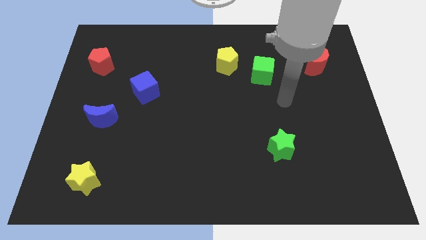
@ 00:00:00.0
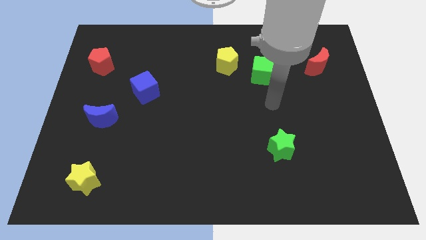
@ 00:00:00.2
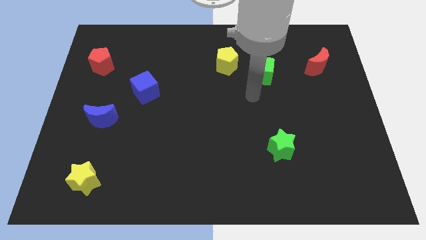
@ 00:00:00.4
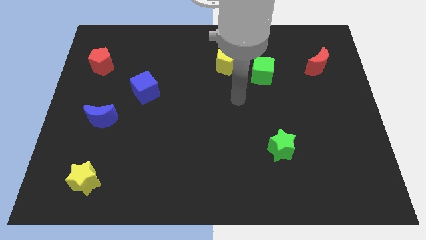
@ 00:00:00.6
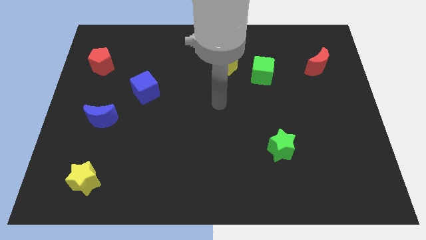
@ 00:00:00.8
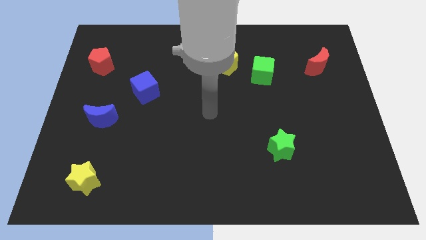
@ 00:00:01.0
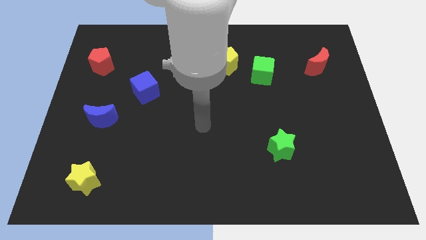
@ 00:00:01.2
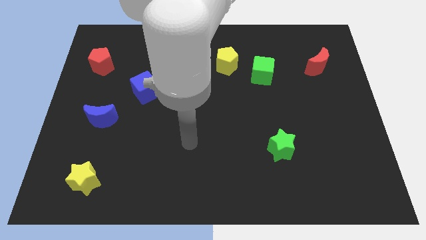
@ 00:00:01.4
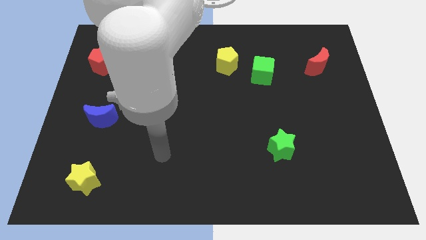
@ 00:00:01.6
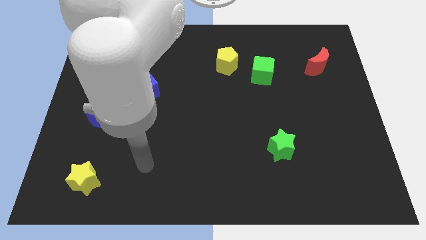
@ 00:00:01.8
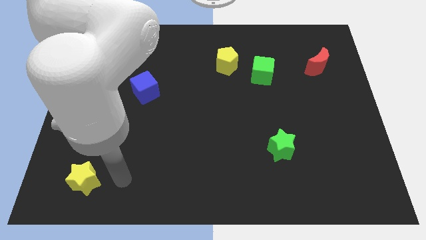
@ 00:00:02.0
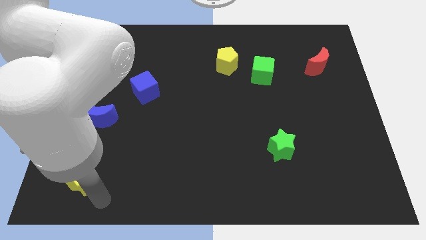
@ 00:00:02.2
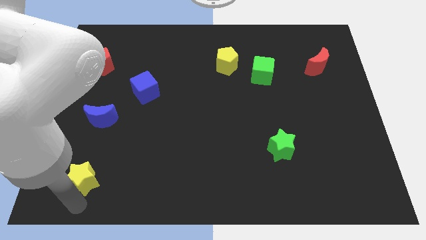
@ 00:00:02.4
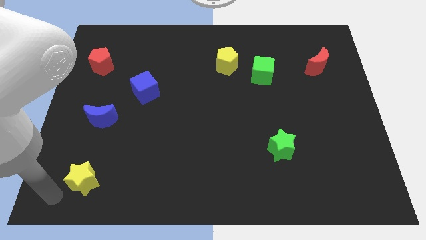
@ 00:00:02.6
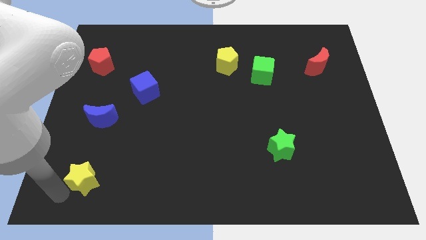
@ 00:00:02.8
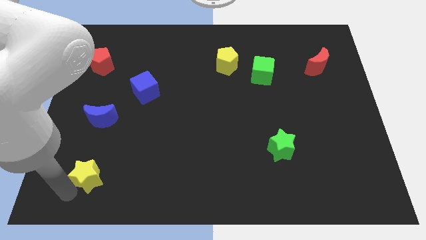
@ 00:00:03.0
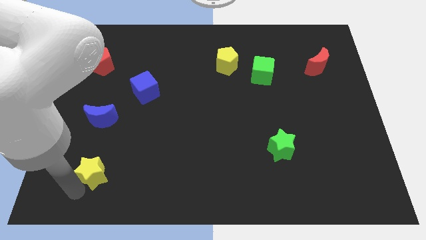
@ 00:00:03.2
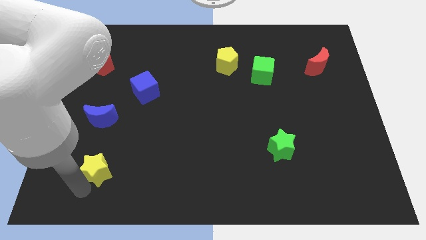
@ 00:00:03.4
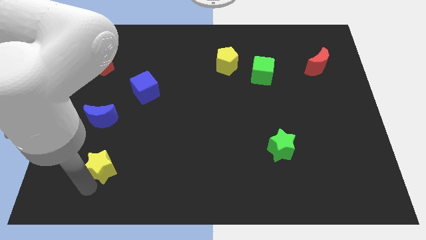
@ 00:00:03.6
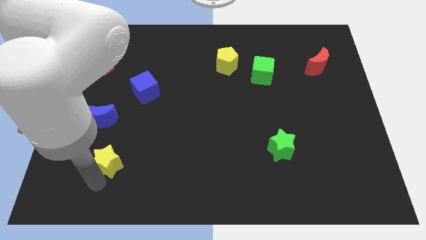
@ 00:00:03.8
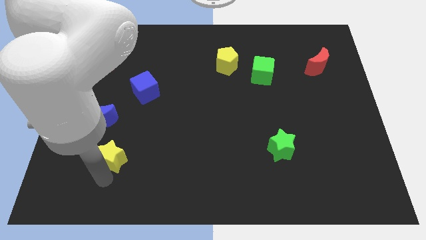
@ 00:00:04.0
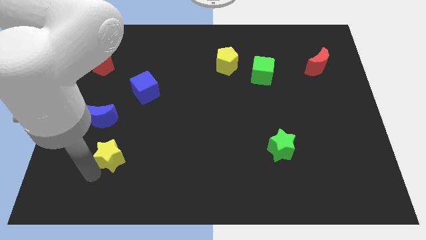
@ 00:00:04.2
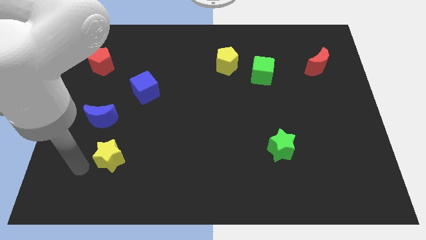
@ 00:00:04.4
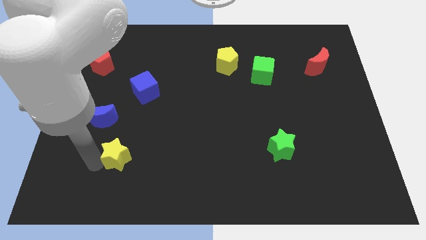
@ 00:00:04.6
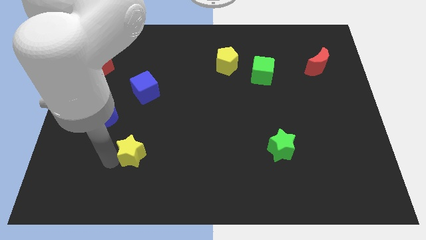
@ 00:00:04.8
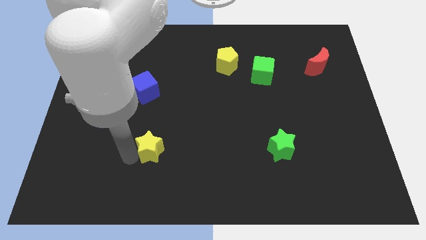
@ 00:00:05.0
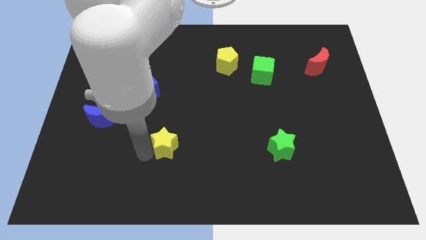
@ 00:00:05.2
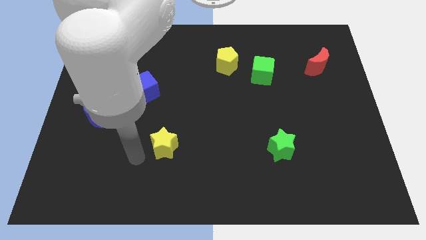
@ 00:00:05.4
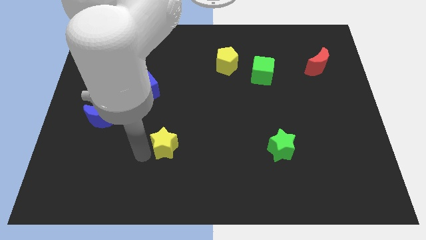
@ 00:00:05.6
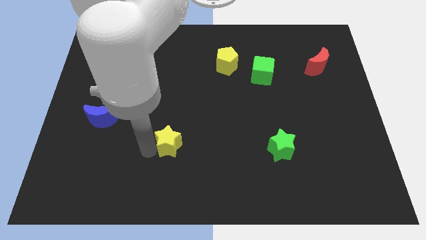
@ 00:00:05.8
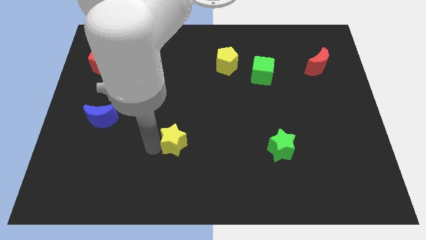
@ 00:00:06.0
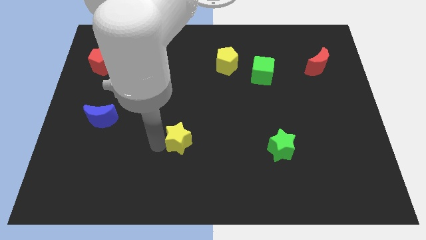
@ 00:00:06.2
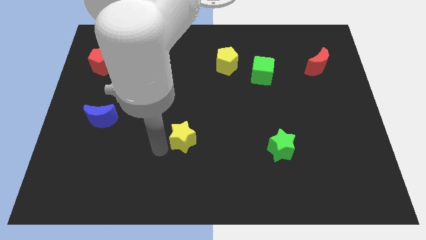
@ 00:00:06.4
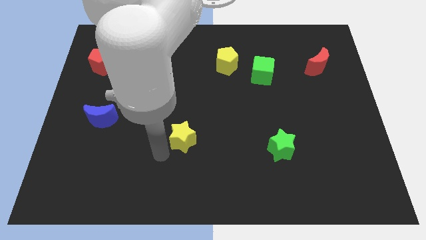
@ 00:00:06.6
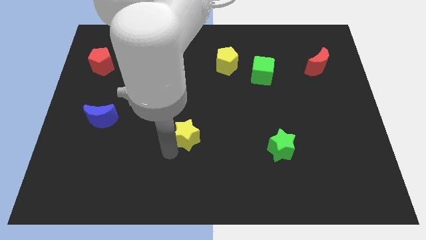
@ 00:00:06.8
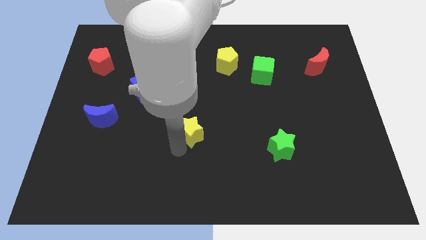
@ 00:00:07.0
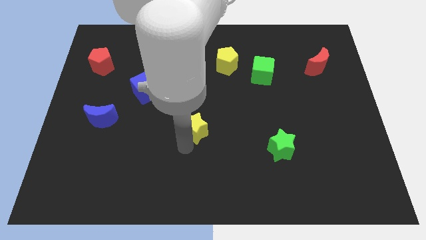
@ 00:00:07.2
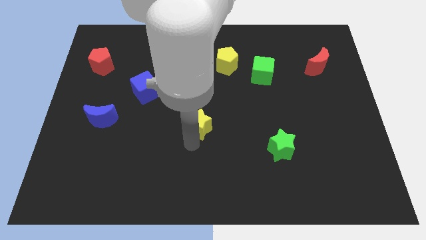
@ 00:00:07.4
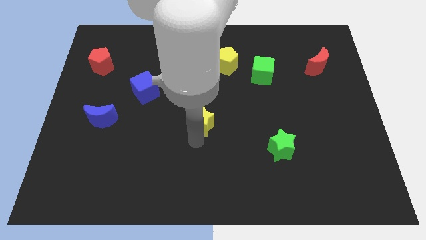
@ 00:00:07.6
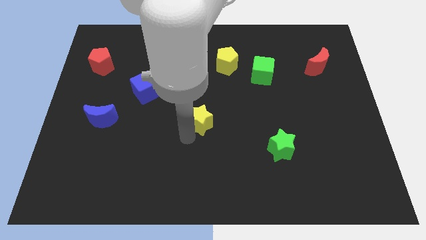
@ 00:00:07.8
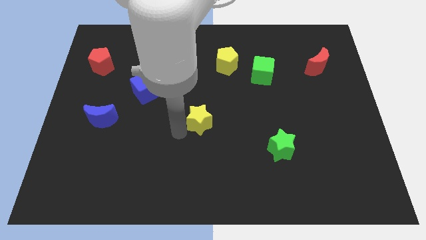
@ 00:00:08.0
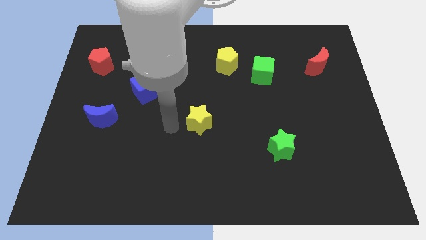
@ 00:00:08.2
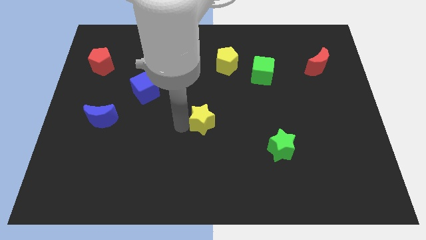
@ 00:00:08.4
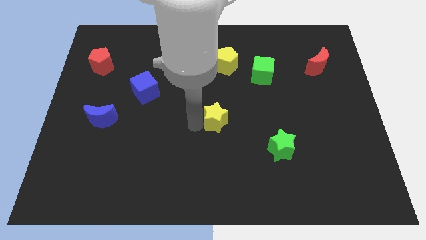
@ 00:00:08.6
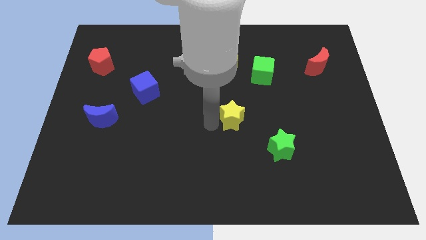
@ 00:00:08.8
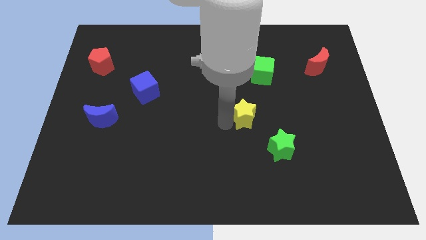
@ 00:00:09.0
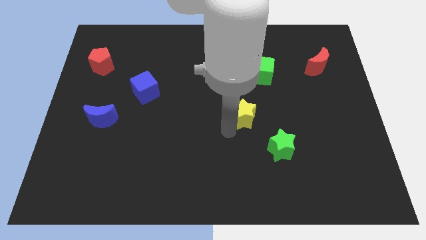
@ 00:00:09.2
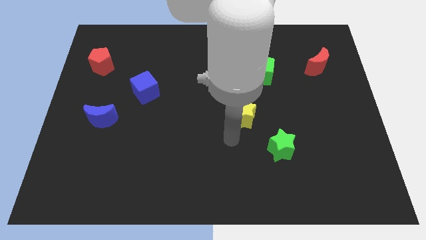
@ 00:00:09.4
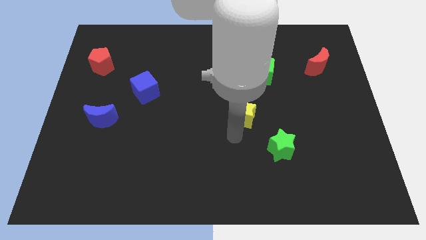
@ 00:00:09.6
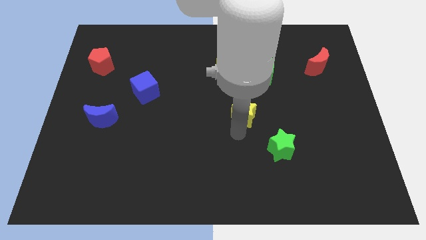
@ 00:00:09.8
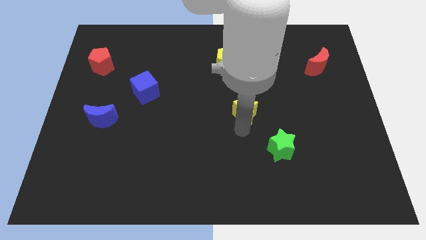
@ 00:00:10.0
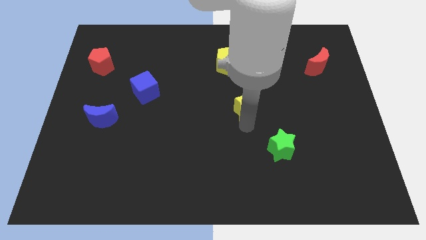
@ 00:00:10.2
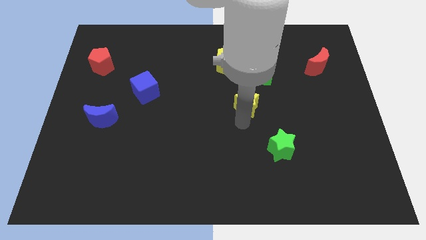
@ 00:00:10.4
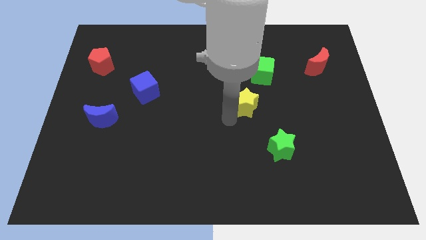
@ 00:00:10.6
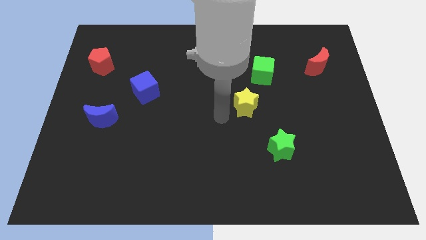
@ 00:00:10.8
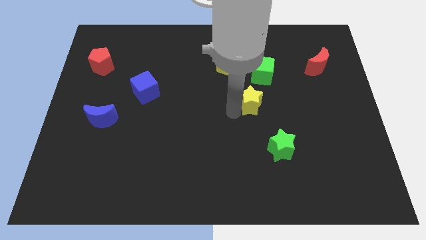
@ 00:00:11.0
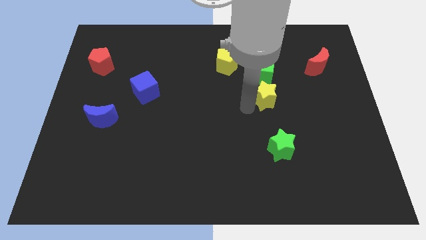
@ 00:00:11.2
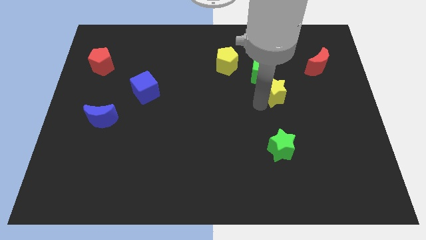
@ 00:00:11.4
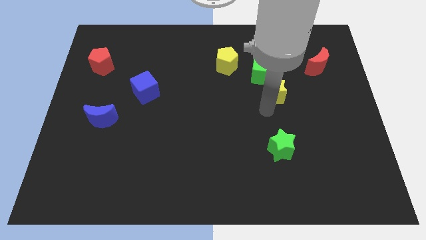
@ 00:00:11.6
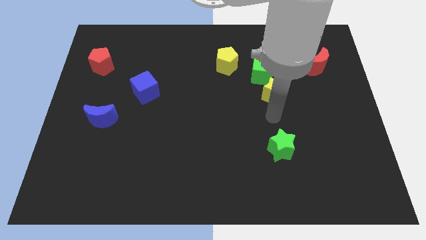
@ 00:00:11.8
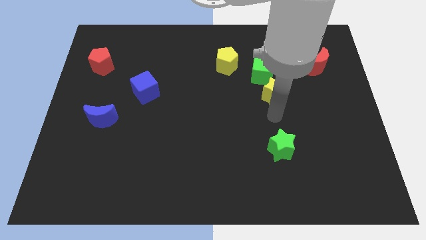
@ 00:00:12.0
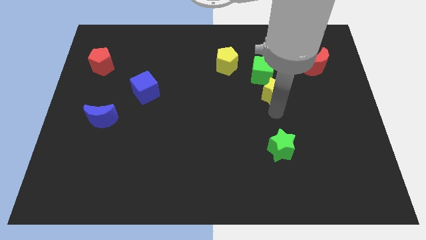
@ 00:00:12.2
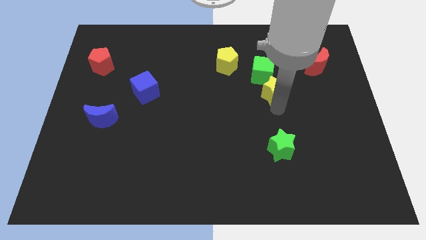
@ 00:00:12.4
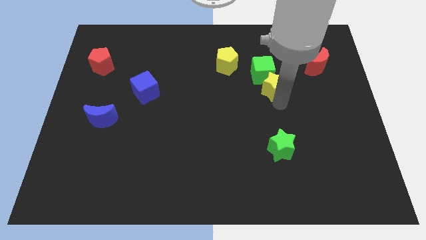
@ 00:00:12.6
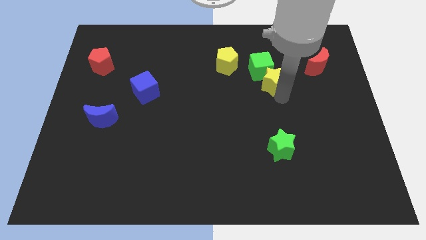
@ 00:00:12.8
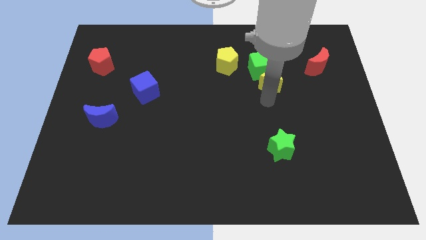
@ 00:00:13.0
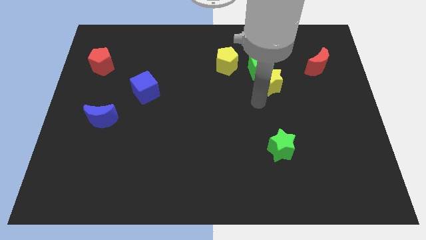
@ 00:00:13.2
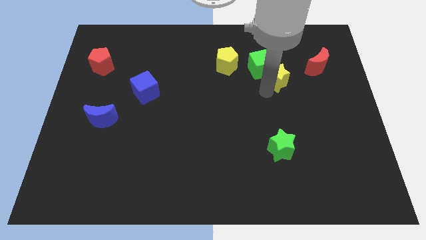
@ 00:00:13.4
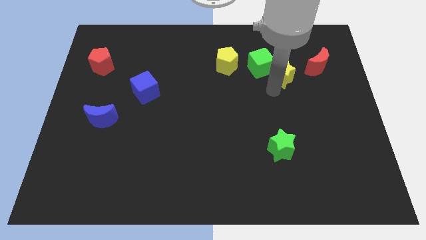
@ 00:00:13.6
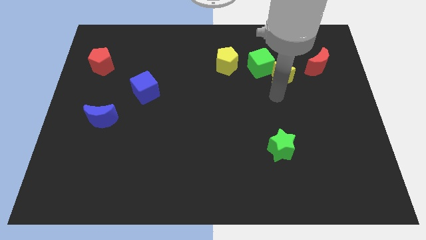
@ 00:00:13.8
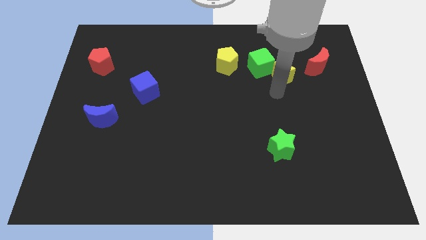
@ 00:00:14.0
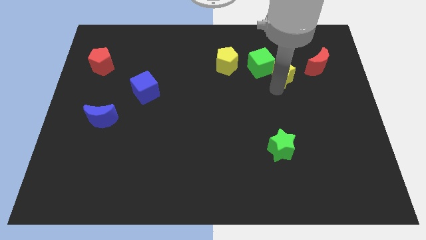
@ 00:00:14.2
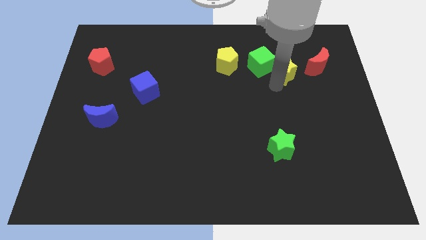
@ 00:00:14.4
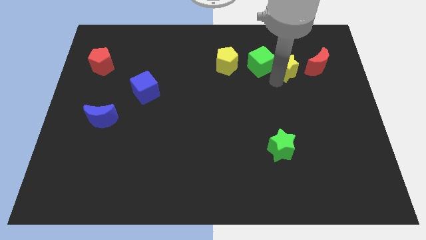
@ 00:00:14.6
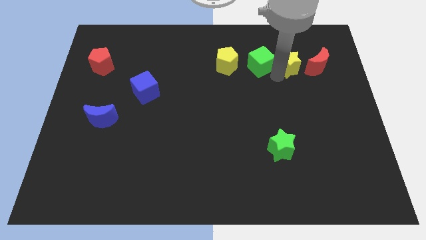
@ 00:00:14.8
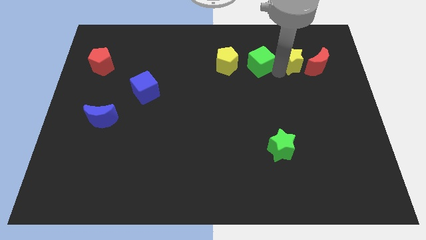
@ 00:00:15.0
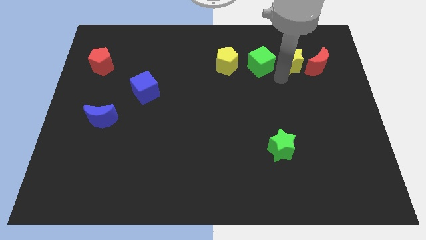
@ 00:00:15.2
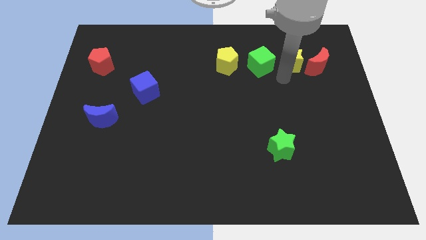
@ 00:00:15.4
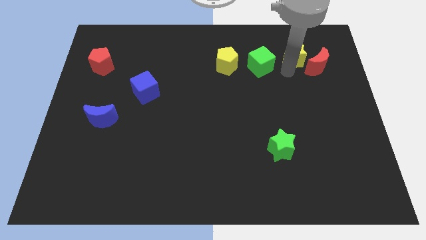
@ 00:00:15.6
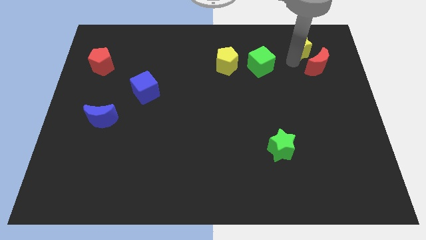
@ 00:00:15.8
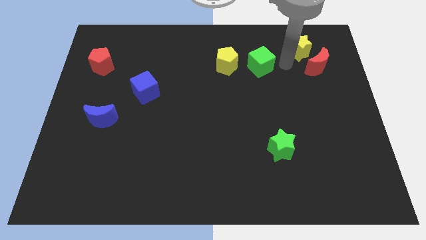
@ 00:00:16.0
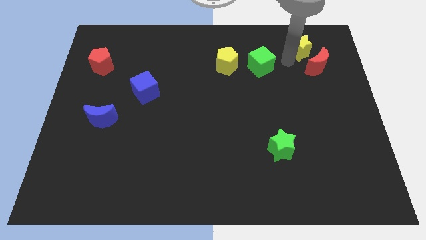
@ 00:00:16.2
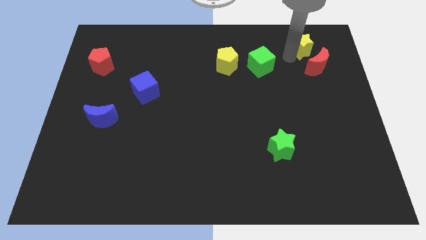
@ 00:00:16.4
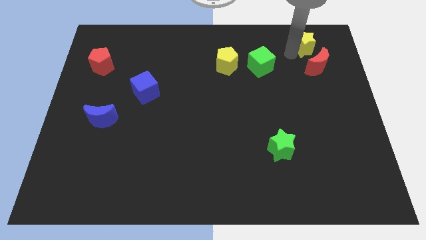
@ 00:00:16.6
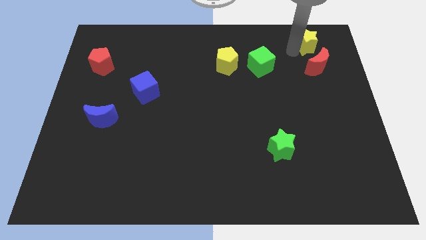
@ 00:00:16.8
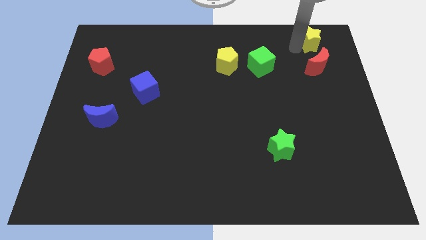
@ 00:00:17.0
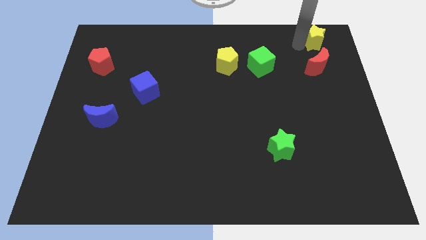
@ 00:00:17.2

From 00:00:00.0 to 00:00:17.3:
put the yellow star to the top right corner
